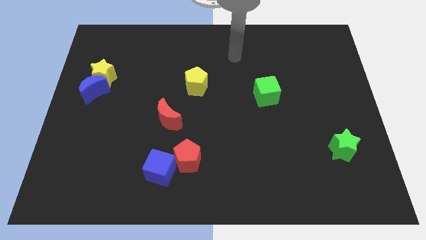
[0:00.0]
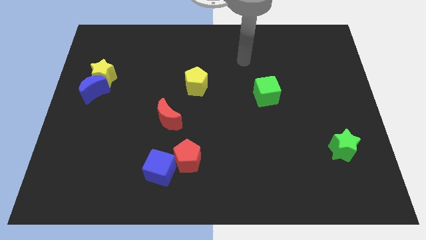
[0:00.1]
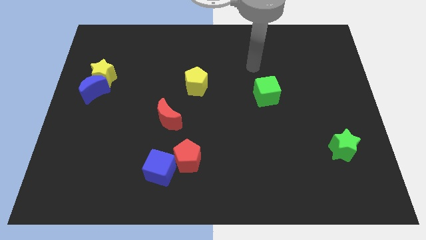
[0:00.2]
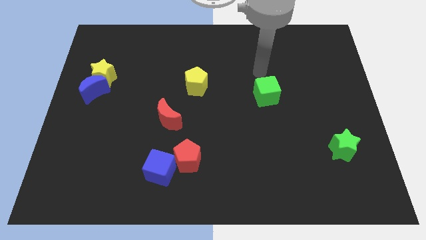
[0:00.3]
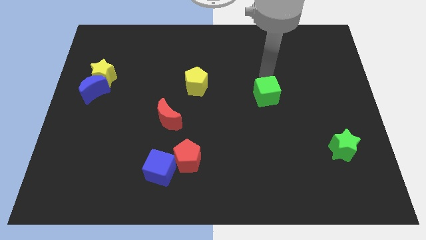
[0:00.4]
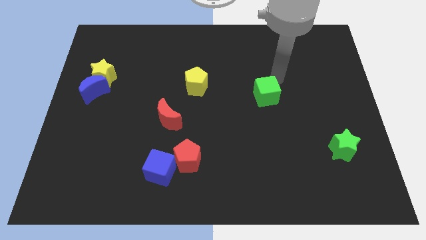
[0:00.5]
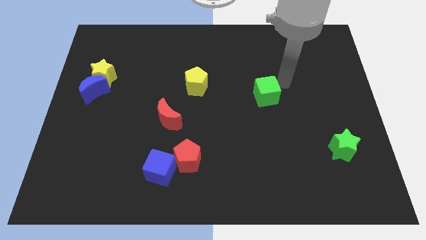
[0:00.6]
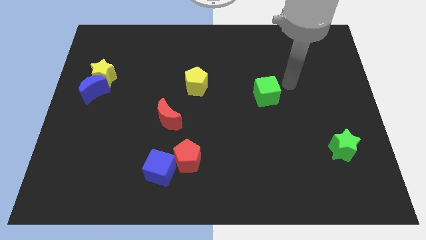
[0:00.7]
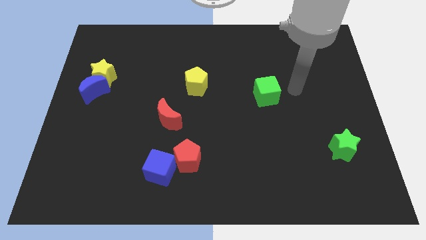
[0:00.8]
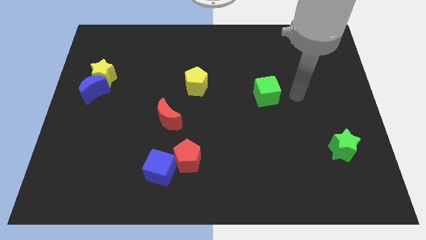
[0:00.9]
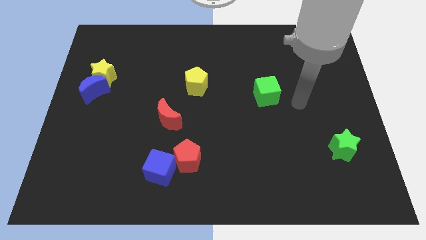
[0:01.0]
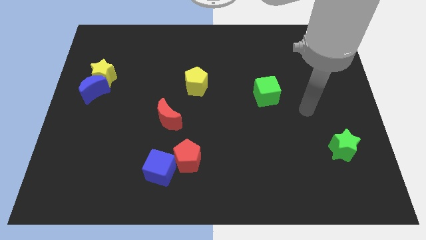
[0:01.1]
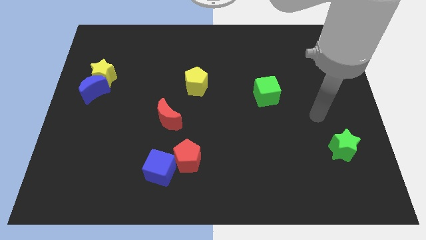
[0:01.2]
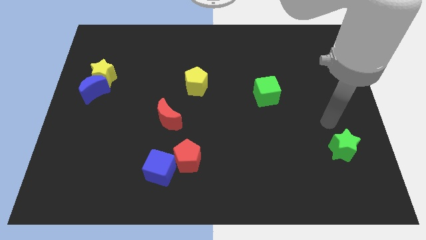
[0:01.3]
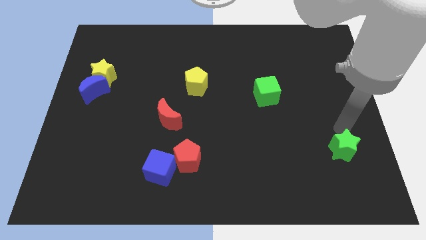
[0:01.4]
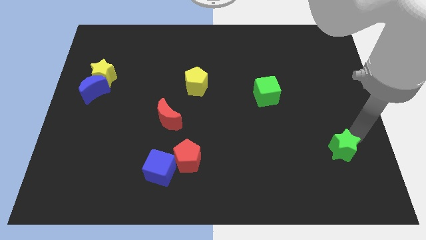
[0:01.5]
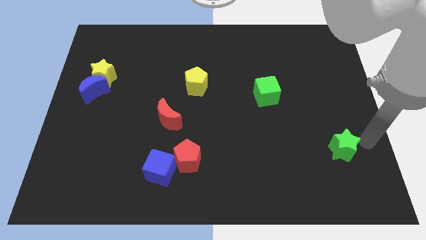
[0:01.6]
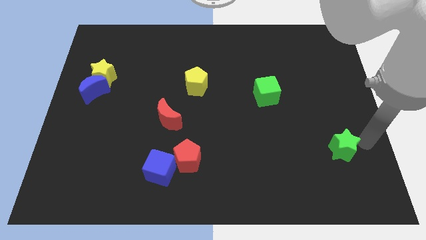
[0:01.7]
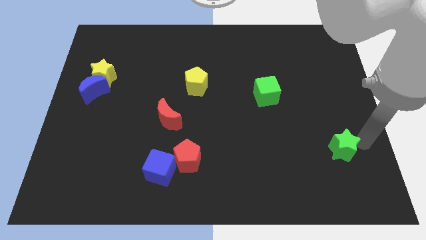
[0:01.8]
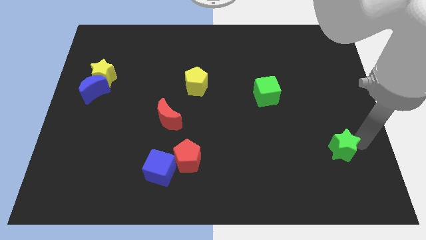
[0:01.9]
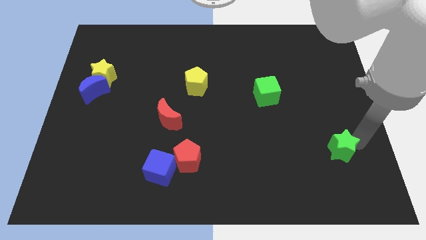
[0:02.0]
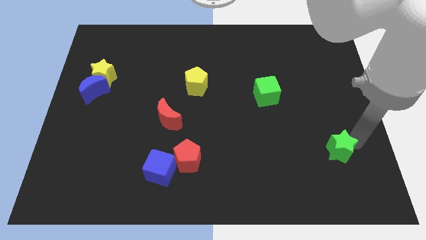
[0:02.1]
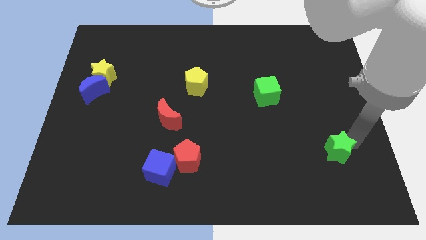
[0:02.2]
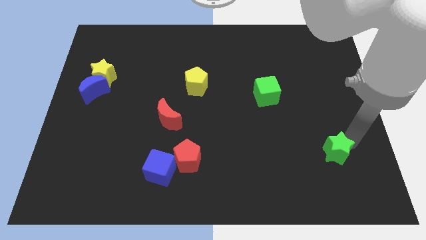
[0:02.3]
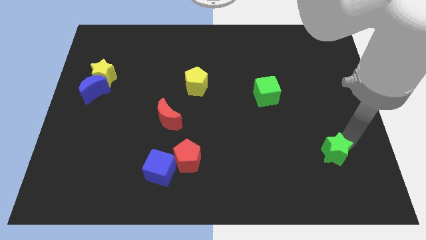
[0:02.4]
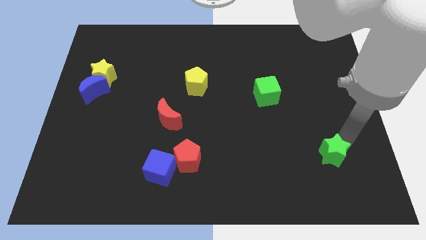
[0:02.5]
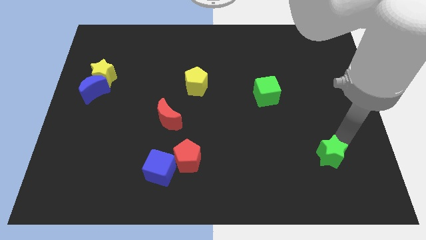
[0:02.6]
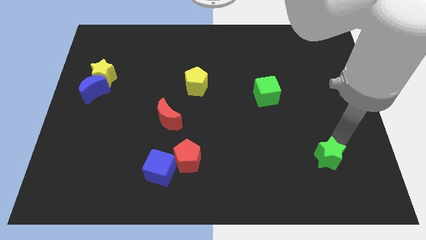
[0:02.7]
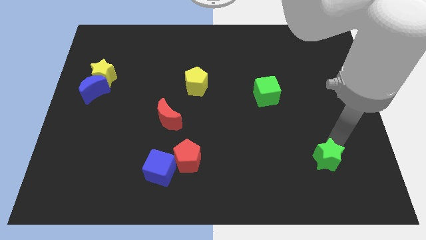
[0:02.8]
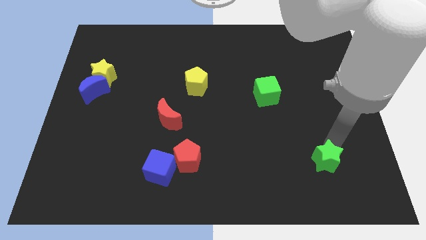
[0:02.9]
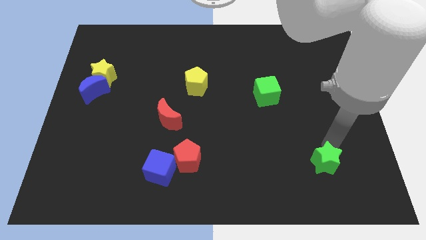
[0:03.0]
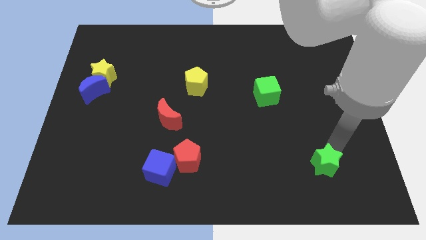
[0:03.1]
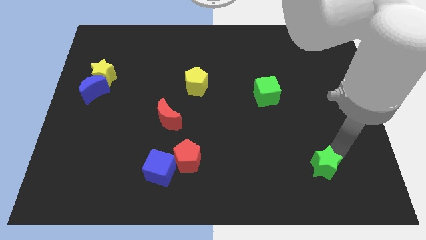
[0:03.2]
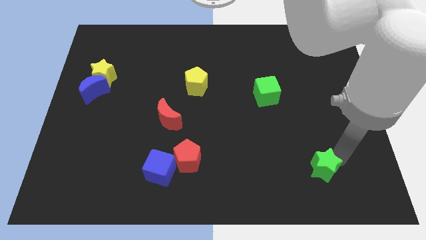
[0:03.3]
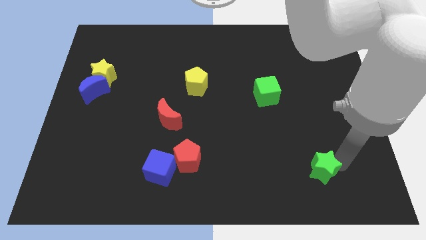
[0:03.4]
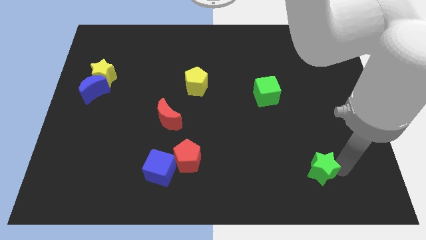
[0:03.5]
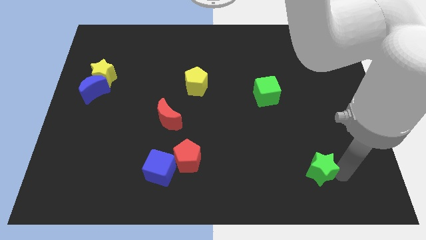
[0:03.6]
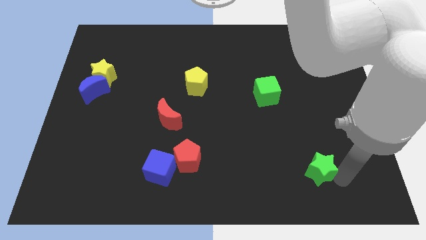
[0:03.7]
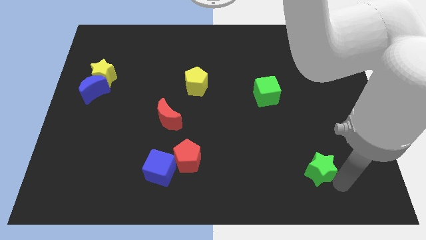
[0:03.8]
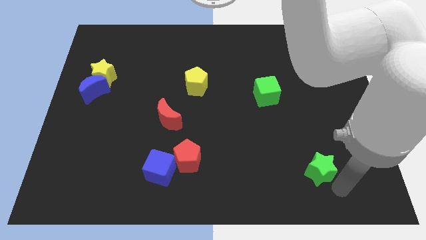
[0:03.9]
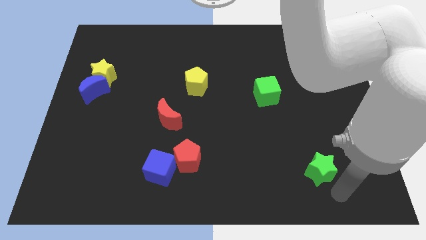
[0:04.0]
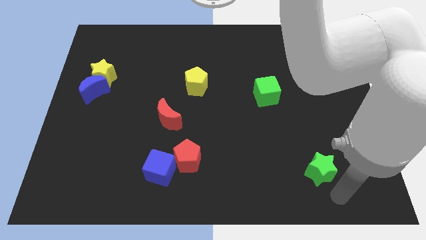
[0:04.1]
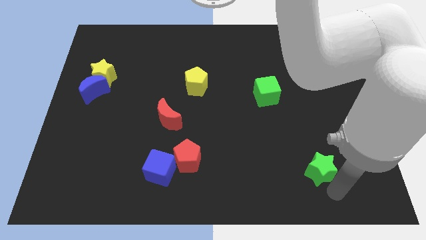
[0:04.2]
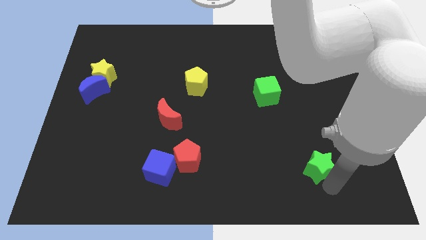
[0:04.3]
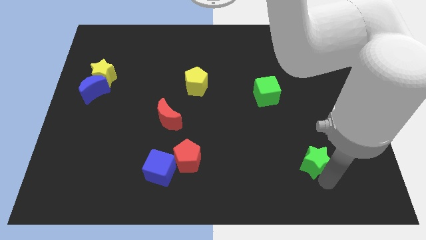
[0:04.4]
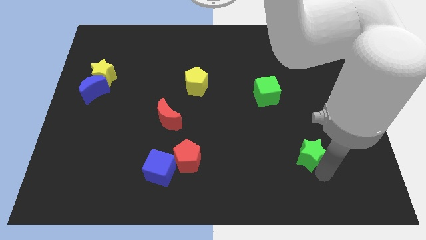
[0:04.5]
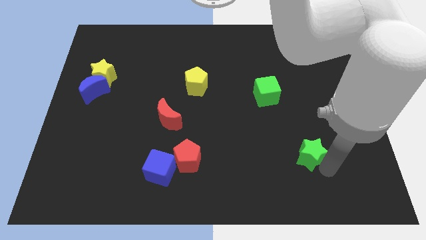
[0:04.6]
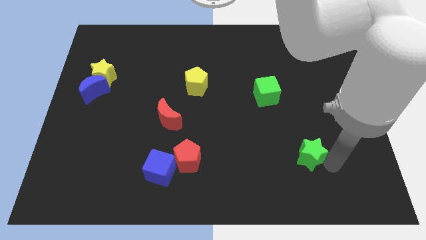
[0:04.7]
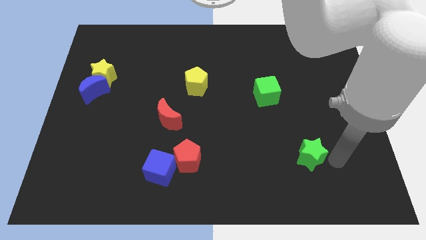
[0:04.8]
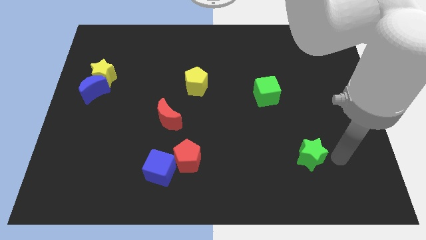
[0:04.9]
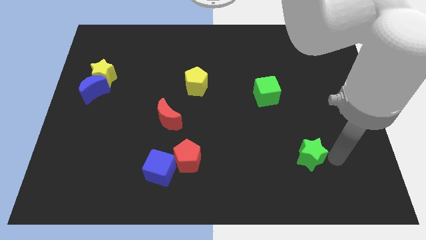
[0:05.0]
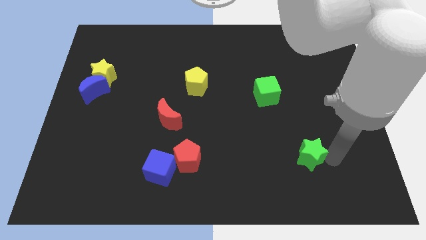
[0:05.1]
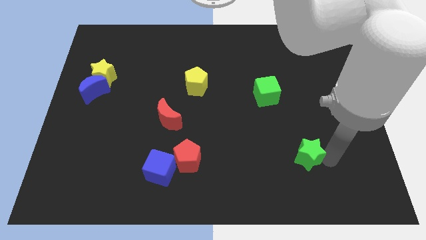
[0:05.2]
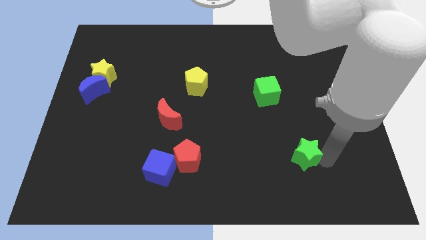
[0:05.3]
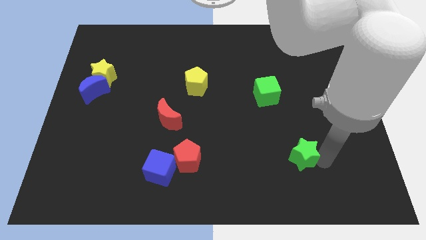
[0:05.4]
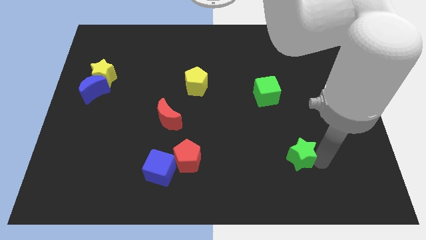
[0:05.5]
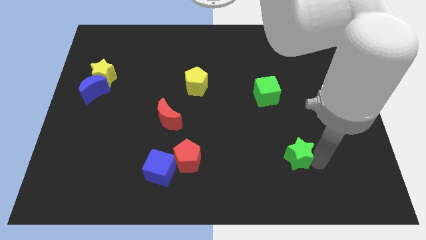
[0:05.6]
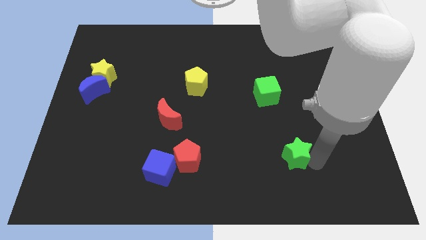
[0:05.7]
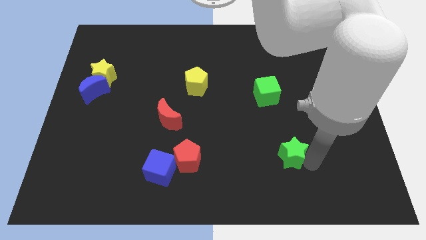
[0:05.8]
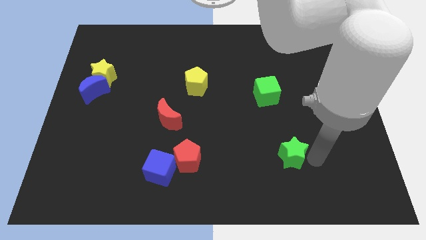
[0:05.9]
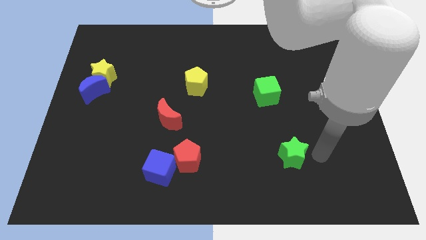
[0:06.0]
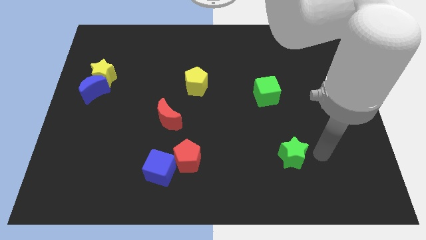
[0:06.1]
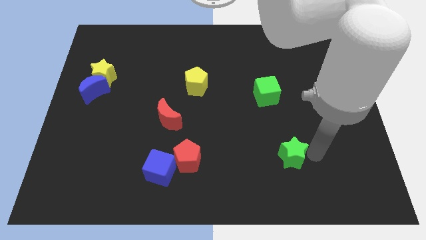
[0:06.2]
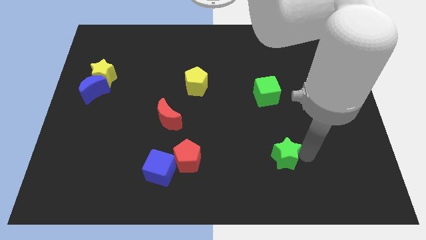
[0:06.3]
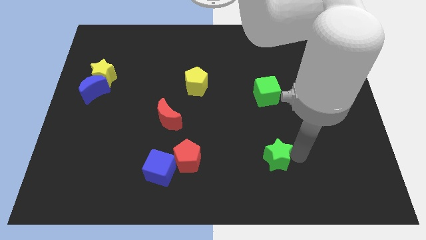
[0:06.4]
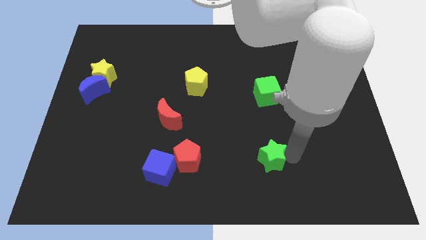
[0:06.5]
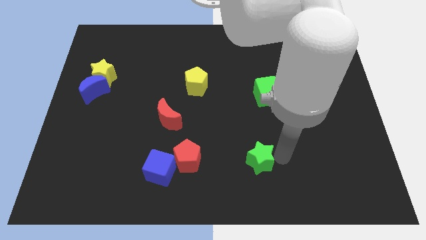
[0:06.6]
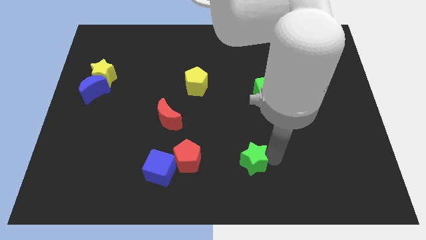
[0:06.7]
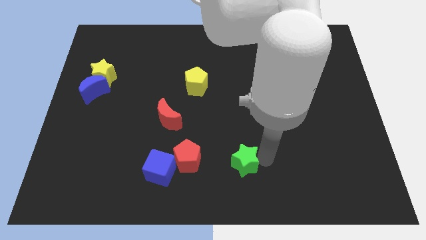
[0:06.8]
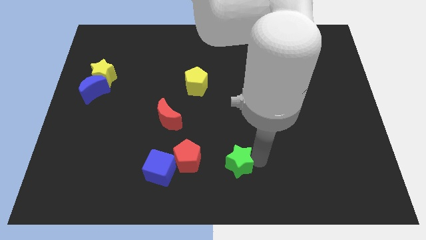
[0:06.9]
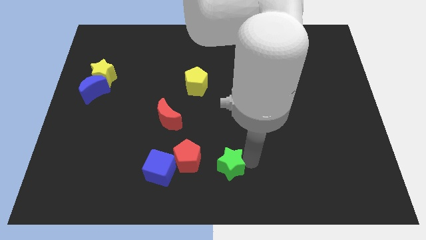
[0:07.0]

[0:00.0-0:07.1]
put the green star to the right of the blue cube
